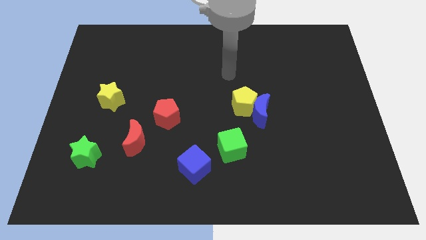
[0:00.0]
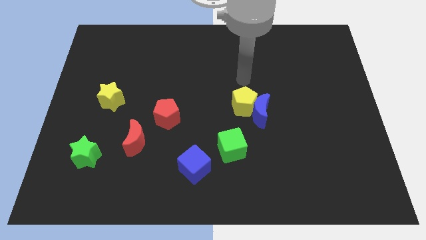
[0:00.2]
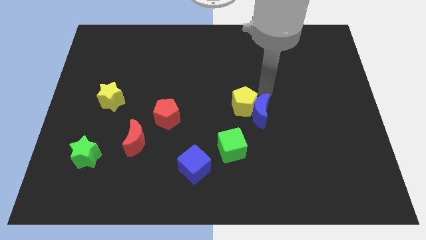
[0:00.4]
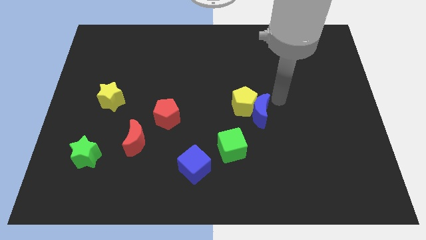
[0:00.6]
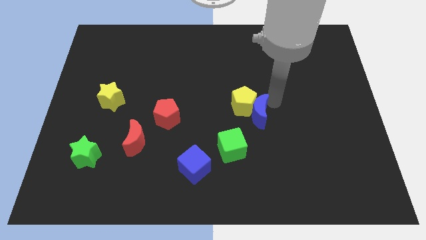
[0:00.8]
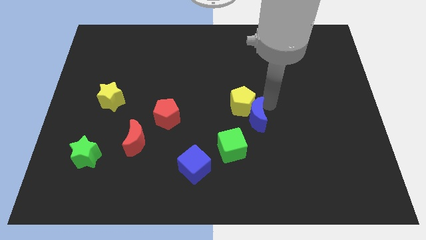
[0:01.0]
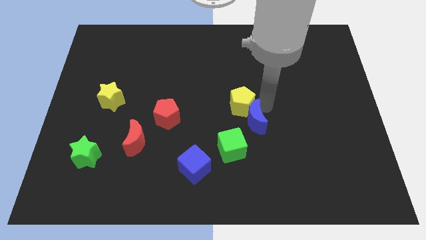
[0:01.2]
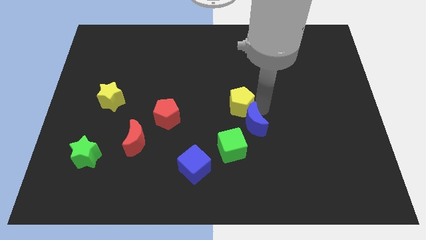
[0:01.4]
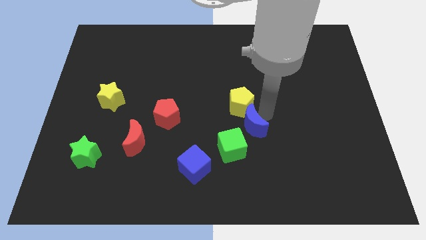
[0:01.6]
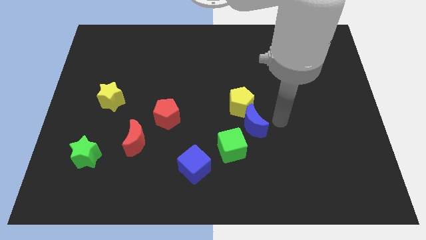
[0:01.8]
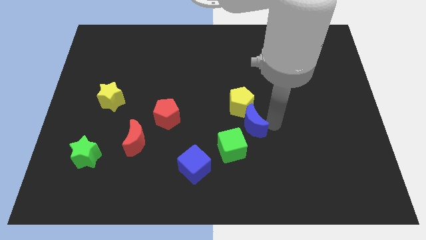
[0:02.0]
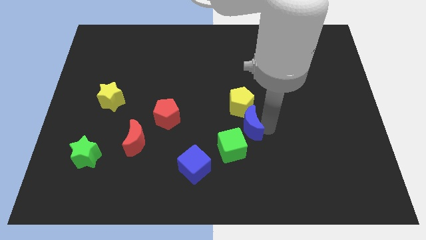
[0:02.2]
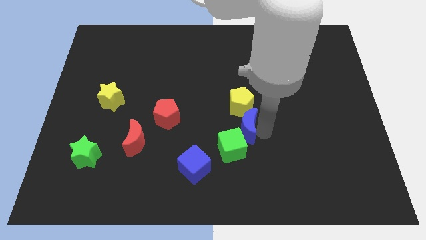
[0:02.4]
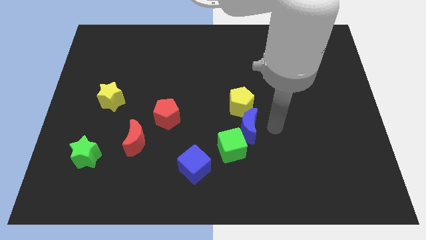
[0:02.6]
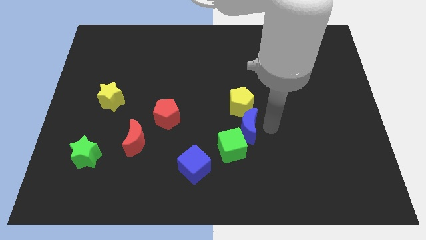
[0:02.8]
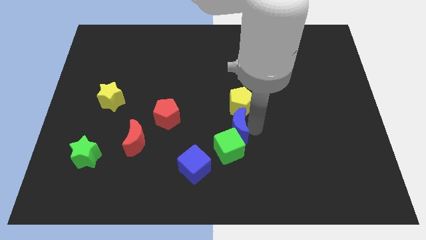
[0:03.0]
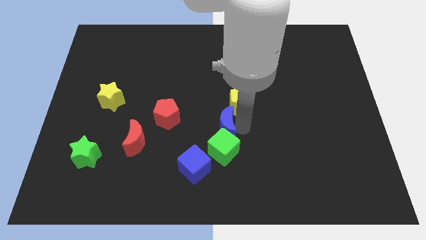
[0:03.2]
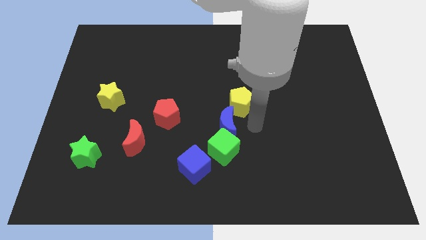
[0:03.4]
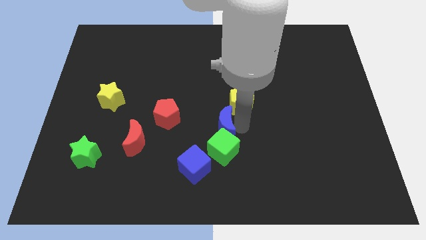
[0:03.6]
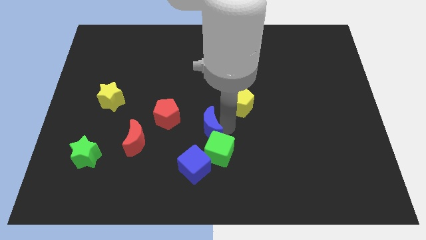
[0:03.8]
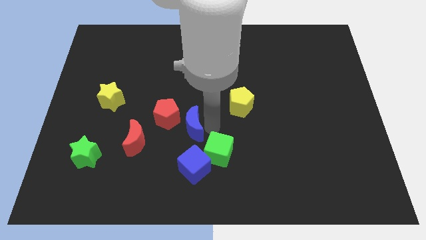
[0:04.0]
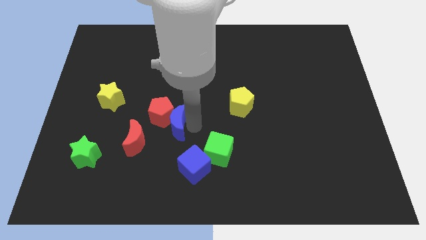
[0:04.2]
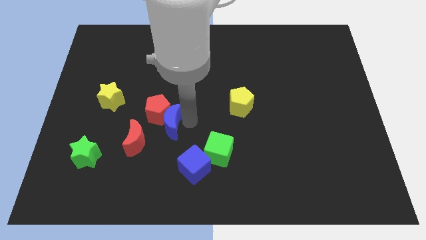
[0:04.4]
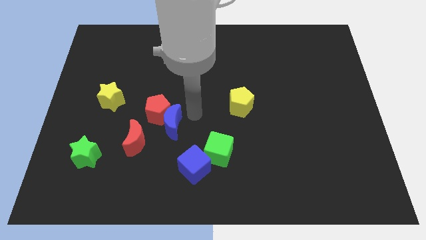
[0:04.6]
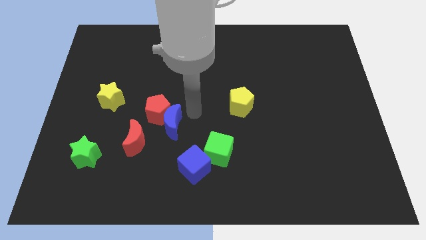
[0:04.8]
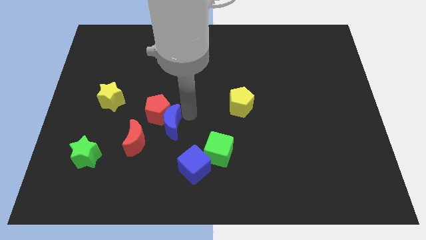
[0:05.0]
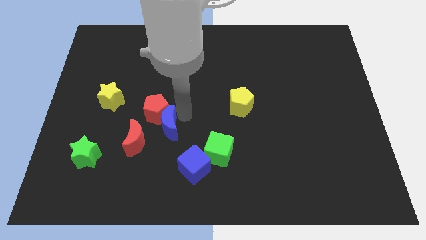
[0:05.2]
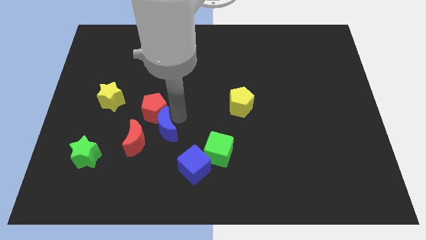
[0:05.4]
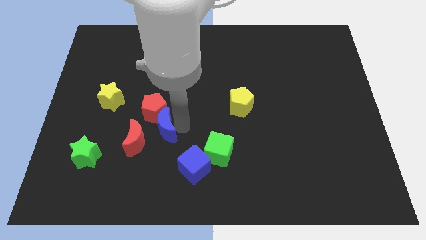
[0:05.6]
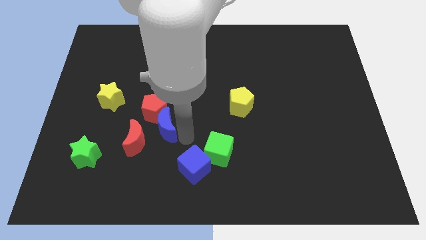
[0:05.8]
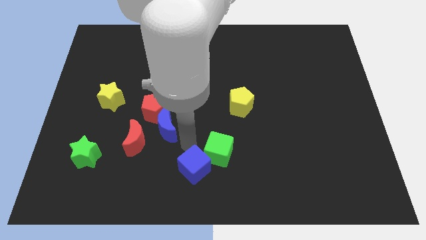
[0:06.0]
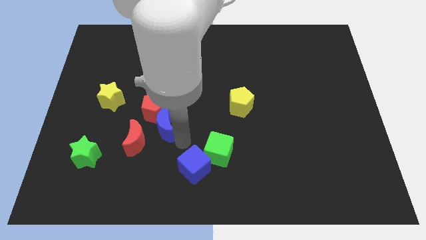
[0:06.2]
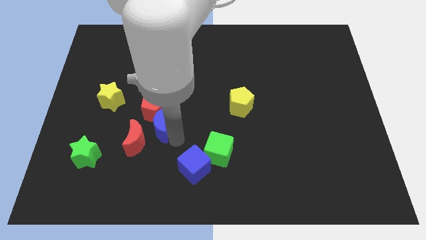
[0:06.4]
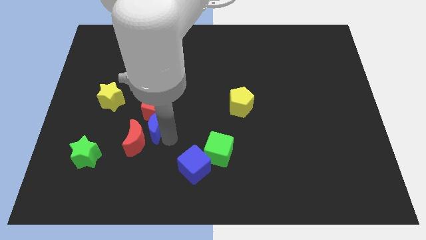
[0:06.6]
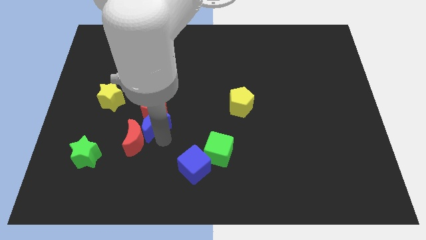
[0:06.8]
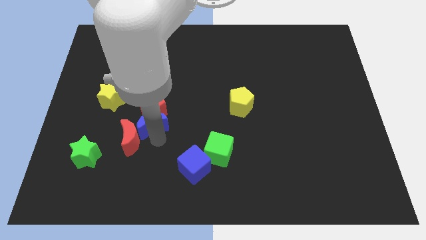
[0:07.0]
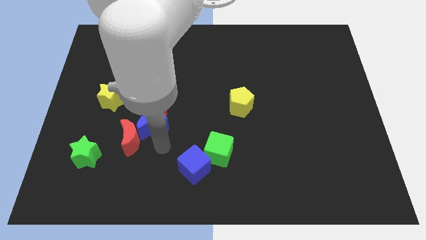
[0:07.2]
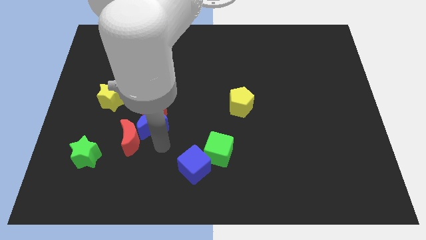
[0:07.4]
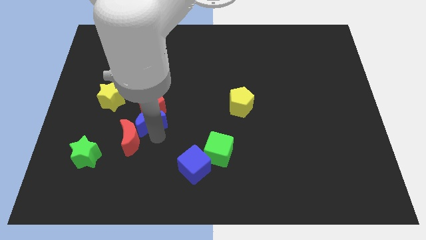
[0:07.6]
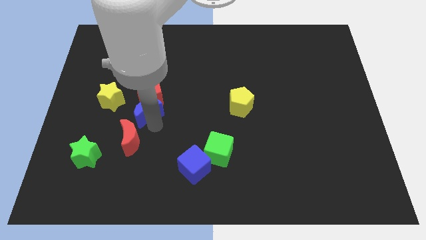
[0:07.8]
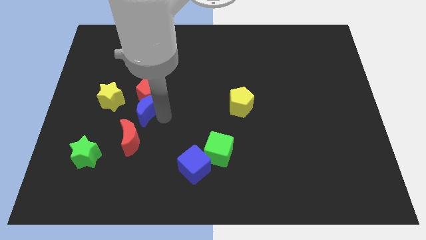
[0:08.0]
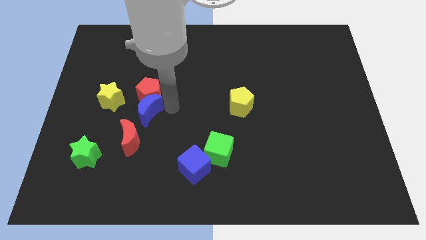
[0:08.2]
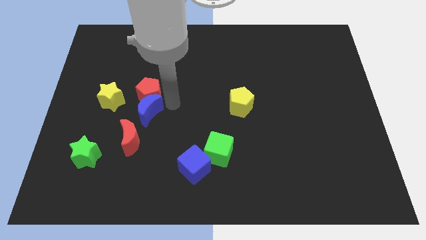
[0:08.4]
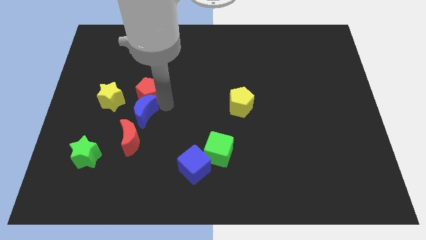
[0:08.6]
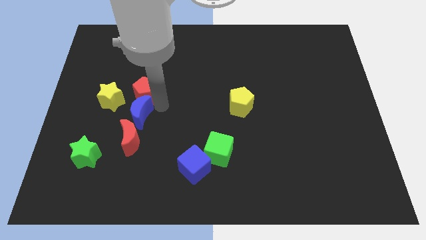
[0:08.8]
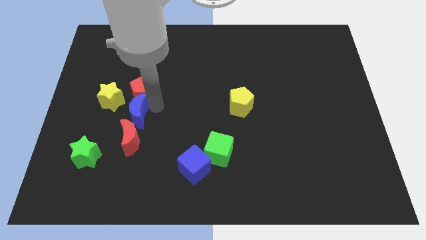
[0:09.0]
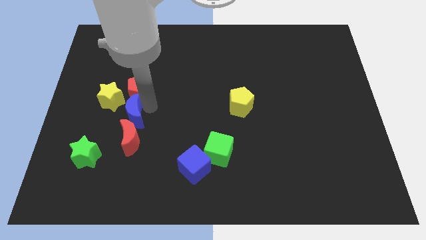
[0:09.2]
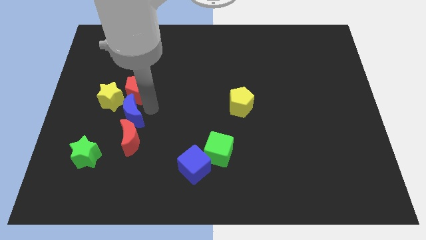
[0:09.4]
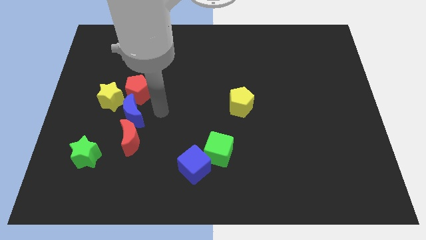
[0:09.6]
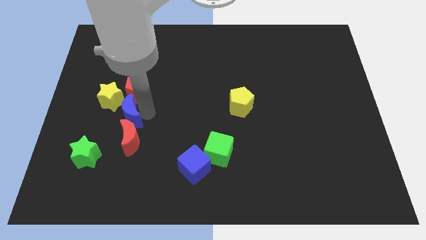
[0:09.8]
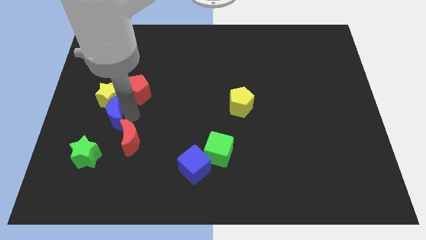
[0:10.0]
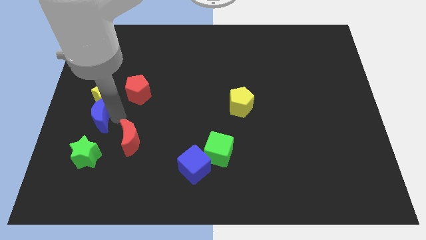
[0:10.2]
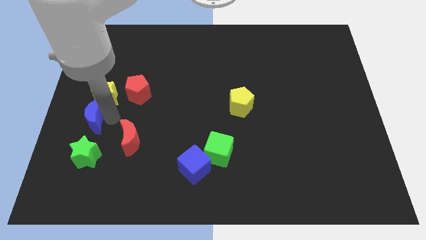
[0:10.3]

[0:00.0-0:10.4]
move the blue moon to the left side of the board

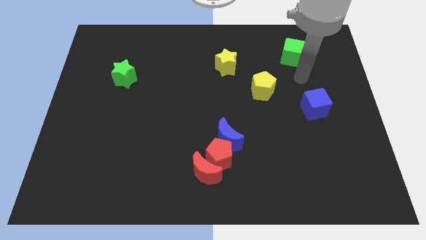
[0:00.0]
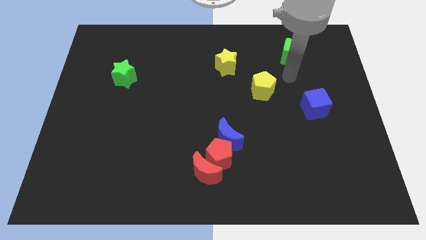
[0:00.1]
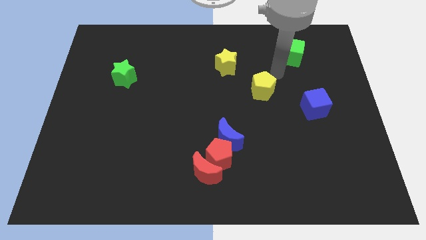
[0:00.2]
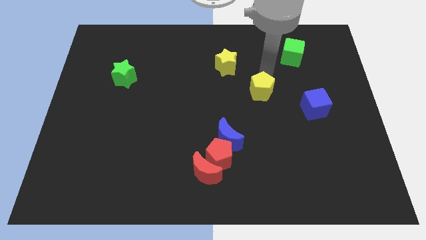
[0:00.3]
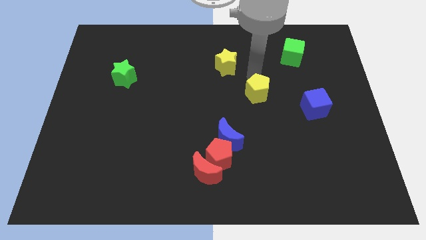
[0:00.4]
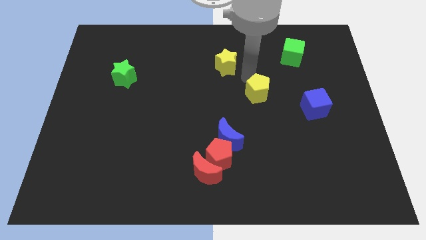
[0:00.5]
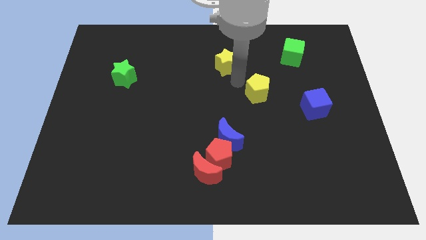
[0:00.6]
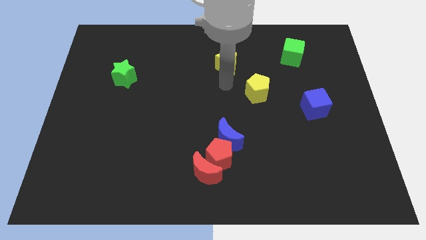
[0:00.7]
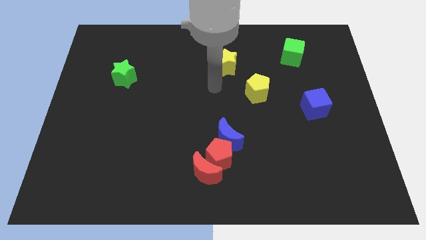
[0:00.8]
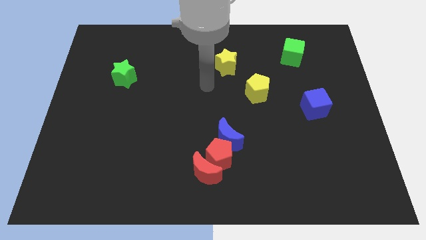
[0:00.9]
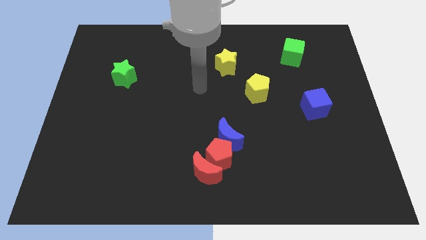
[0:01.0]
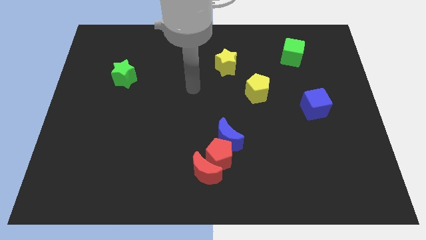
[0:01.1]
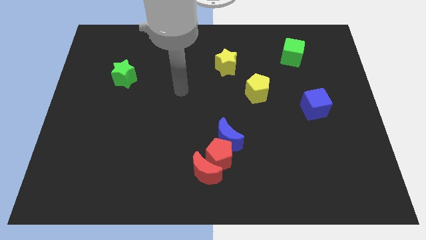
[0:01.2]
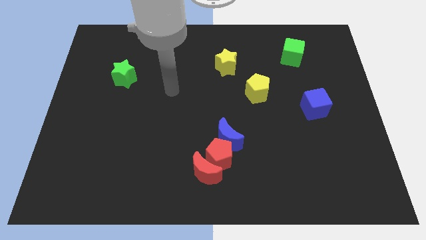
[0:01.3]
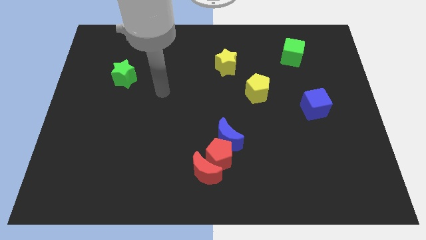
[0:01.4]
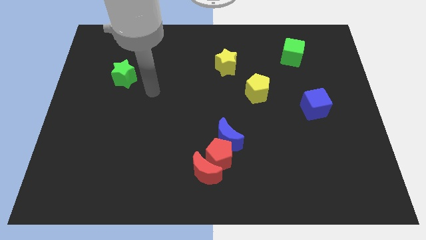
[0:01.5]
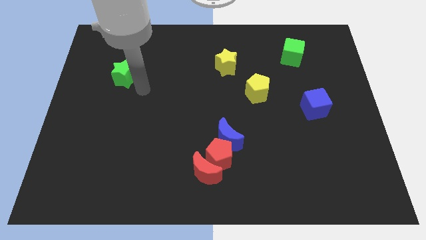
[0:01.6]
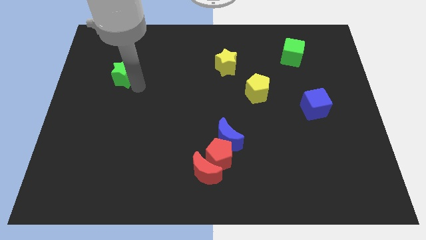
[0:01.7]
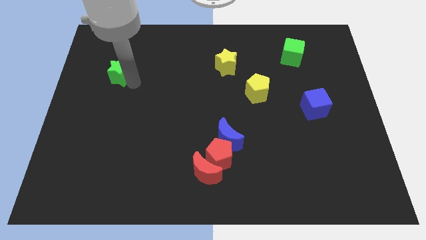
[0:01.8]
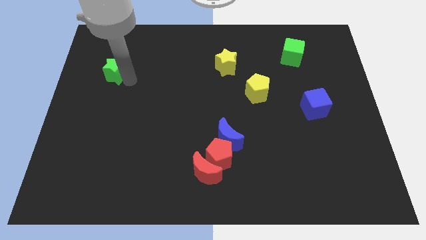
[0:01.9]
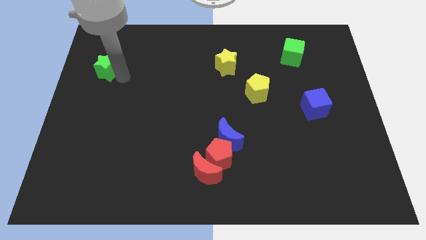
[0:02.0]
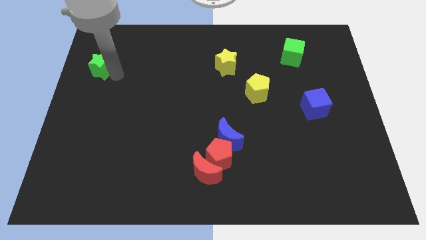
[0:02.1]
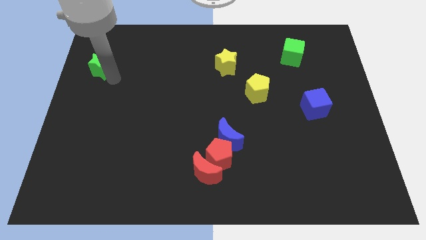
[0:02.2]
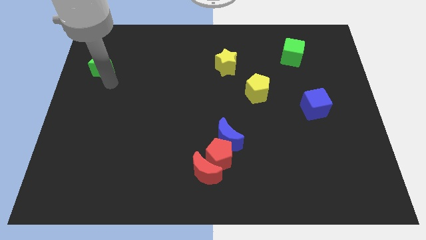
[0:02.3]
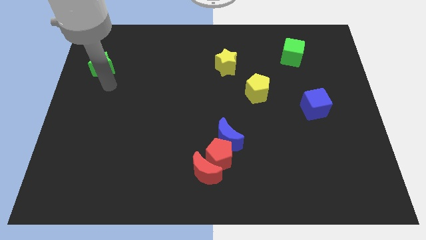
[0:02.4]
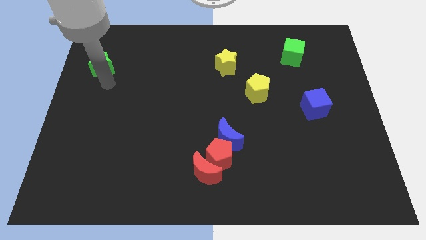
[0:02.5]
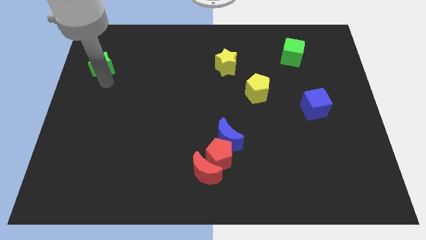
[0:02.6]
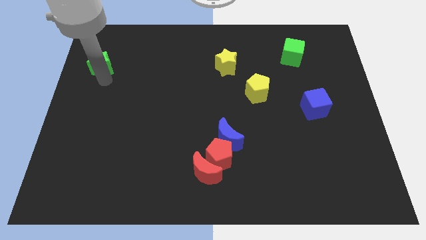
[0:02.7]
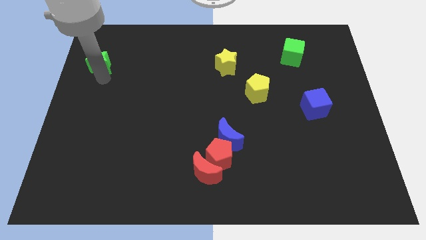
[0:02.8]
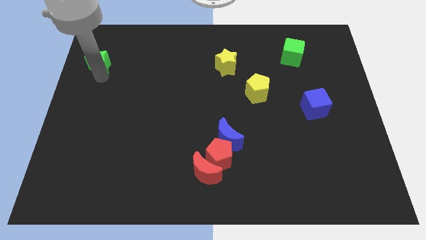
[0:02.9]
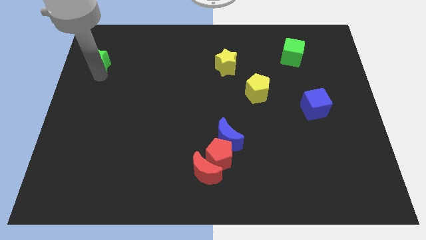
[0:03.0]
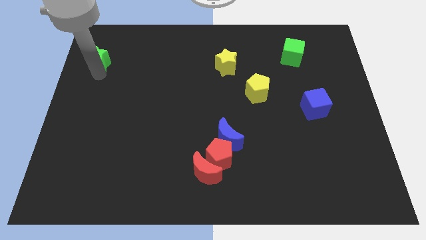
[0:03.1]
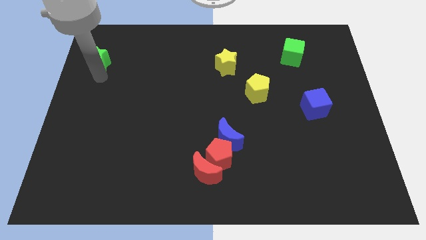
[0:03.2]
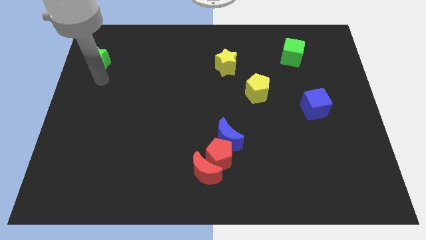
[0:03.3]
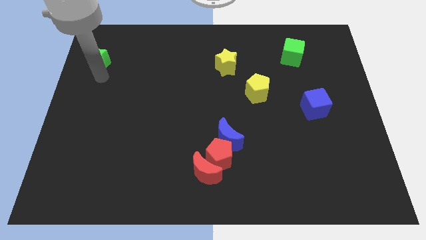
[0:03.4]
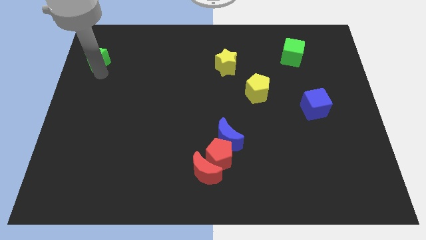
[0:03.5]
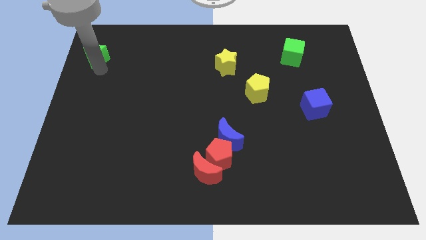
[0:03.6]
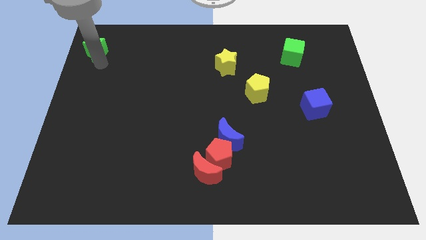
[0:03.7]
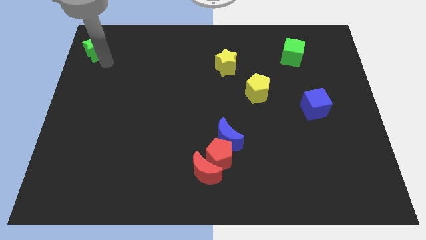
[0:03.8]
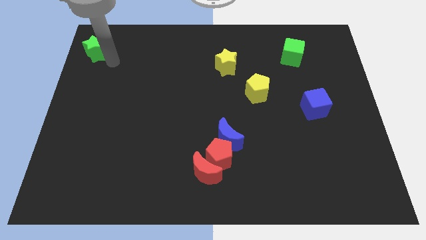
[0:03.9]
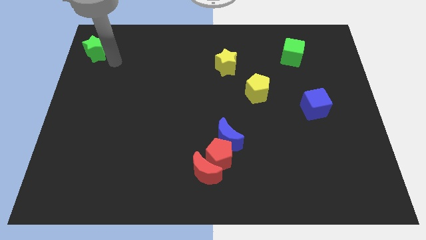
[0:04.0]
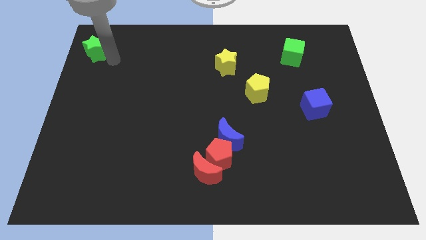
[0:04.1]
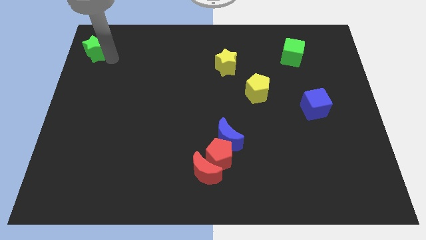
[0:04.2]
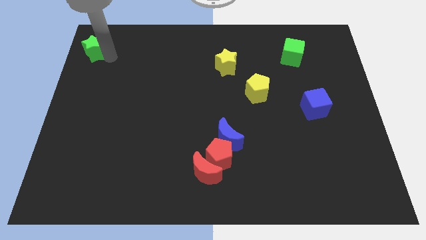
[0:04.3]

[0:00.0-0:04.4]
put the green star to the top left of the board
